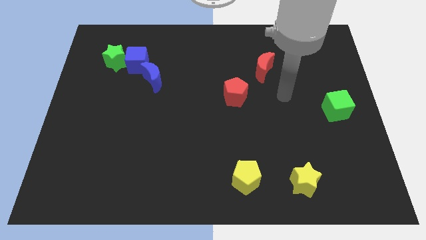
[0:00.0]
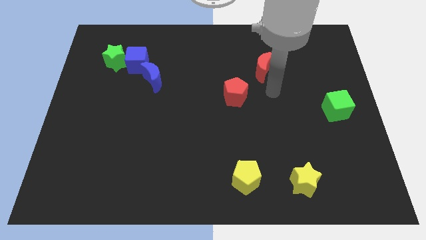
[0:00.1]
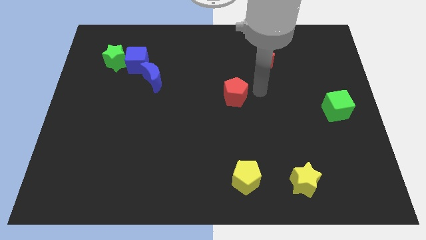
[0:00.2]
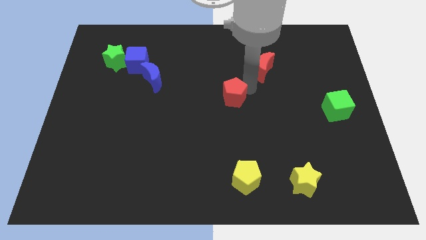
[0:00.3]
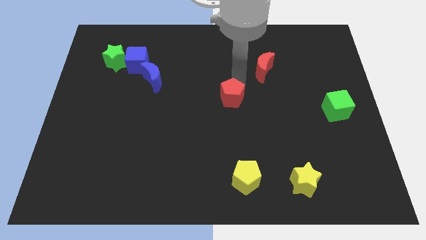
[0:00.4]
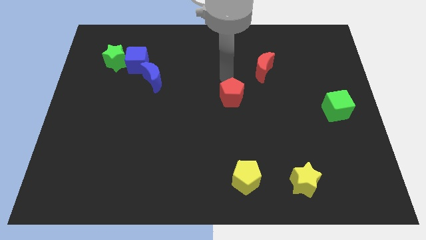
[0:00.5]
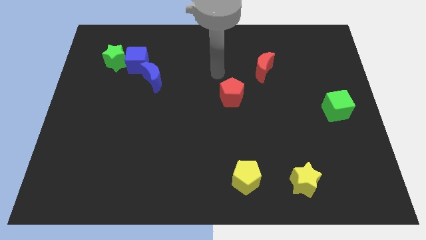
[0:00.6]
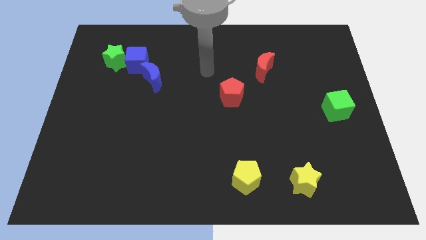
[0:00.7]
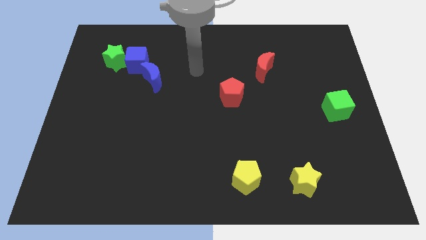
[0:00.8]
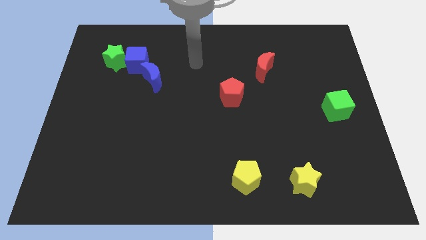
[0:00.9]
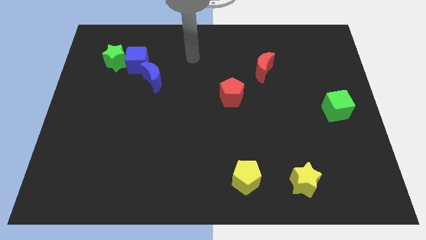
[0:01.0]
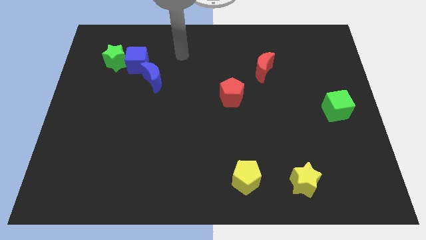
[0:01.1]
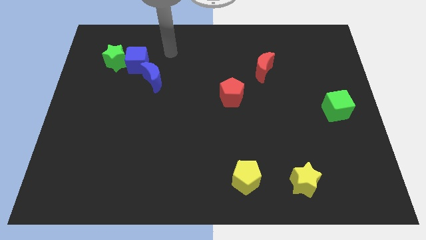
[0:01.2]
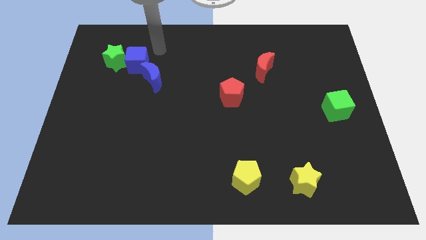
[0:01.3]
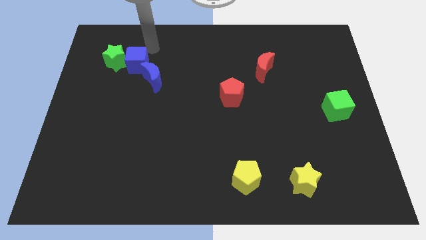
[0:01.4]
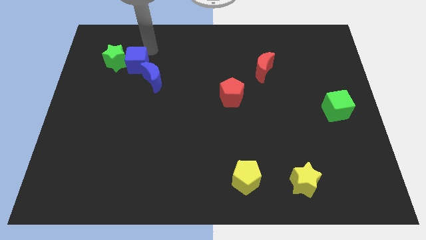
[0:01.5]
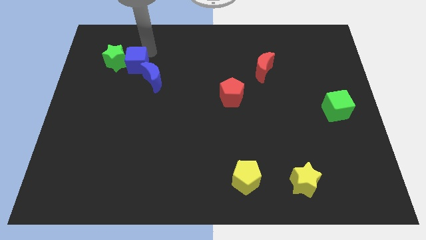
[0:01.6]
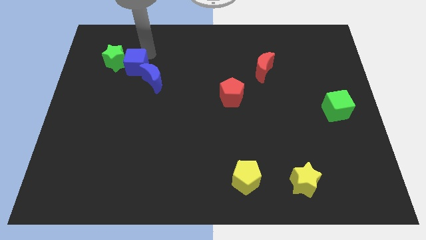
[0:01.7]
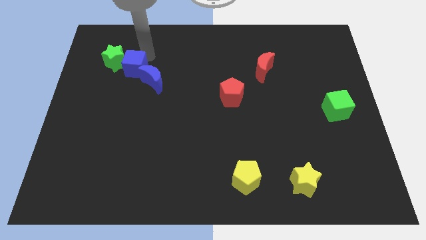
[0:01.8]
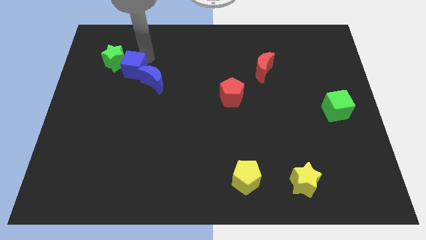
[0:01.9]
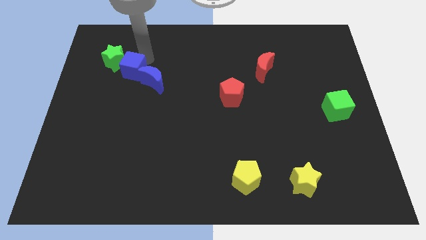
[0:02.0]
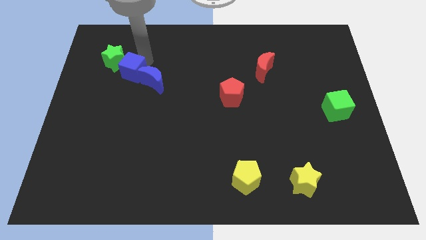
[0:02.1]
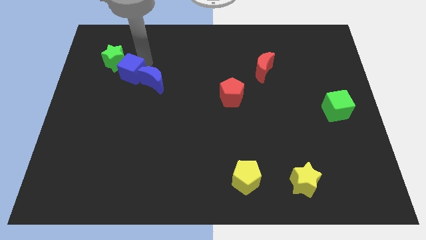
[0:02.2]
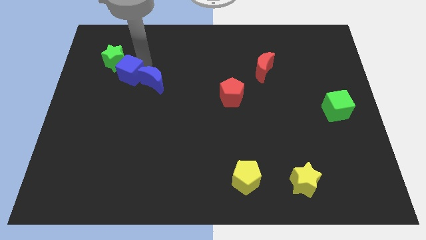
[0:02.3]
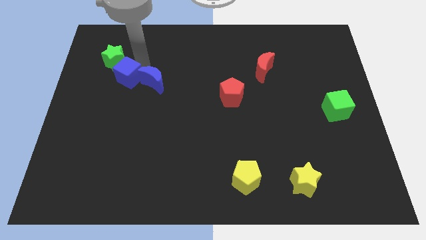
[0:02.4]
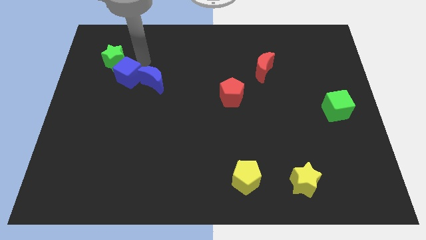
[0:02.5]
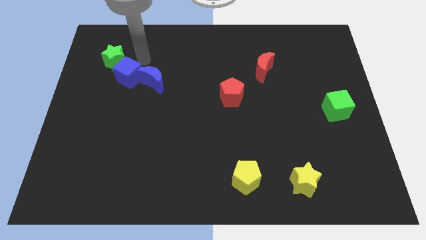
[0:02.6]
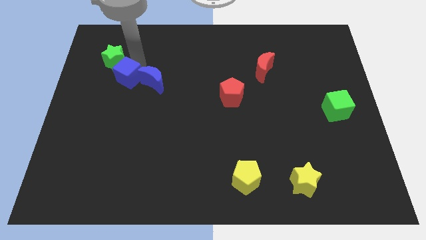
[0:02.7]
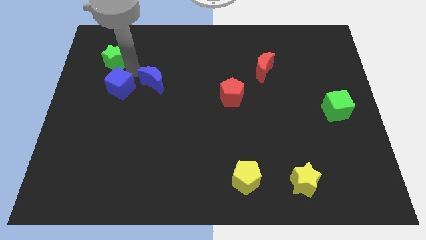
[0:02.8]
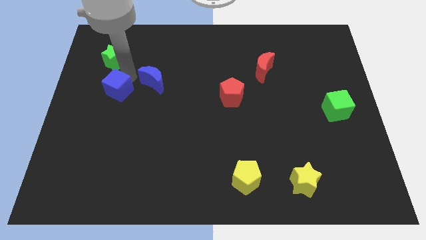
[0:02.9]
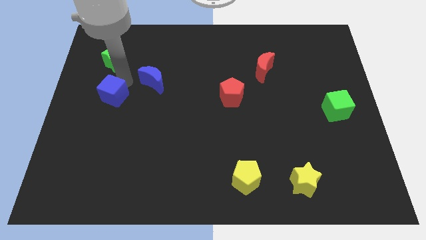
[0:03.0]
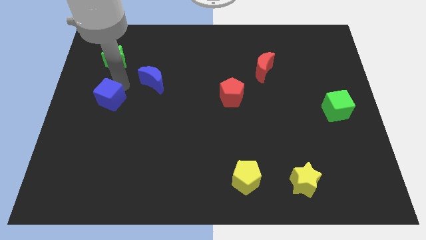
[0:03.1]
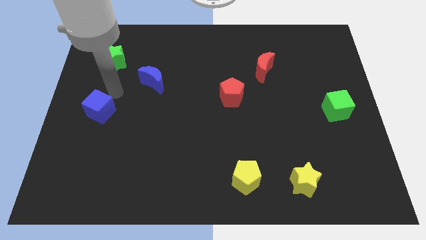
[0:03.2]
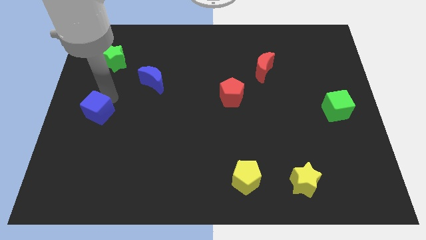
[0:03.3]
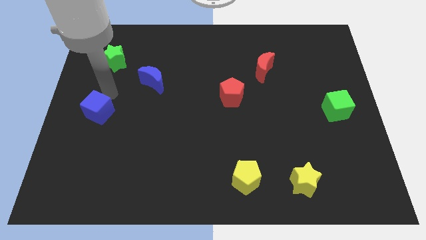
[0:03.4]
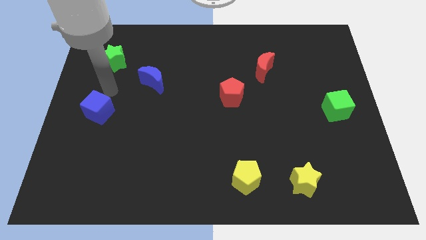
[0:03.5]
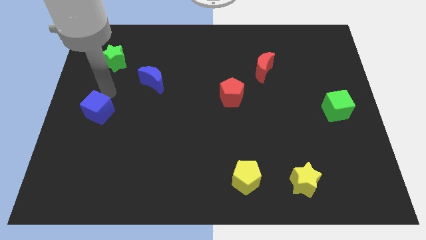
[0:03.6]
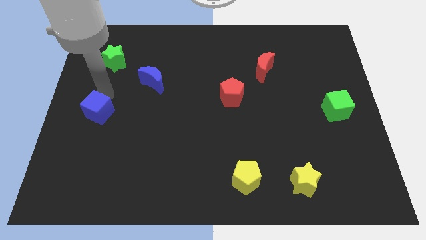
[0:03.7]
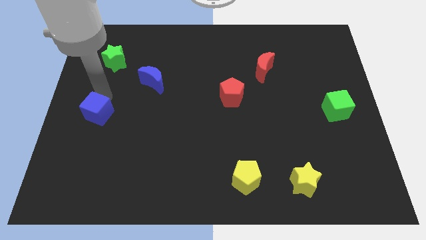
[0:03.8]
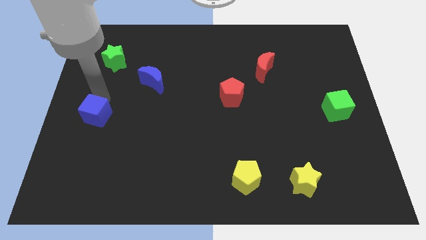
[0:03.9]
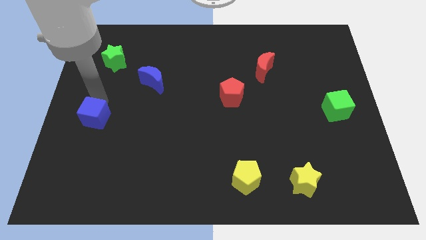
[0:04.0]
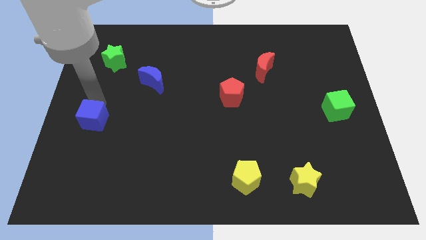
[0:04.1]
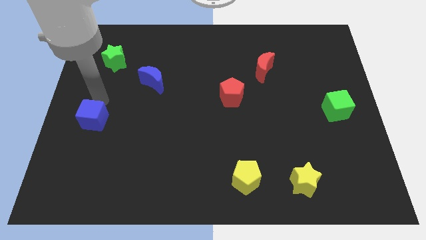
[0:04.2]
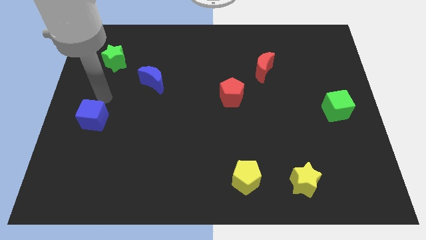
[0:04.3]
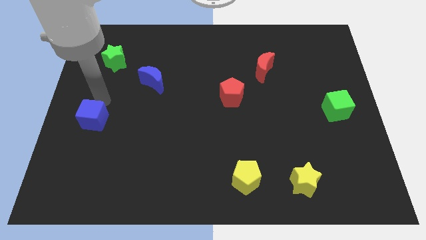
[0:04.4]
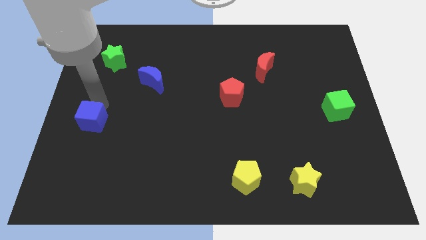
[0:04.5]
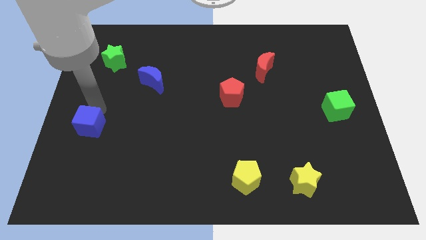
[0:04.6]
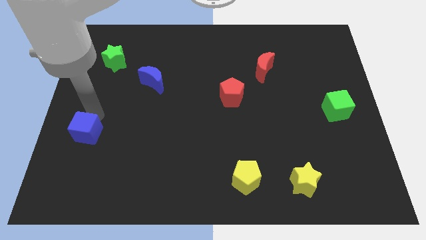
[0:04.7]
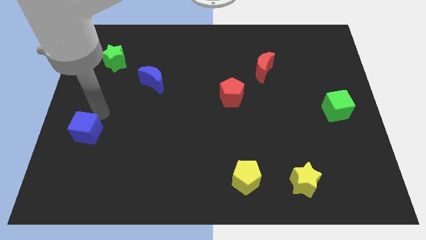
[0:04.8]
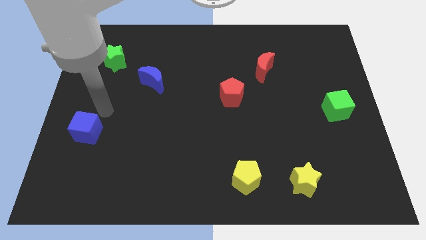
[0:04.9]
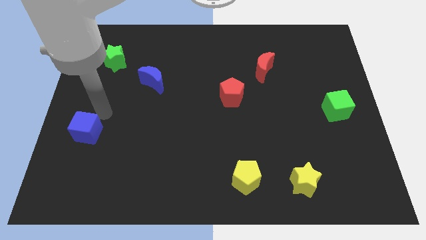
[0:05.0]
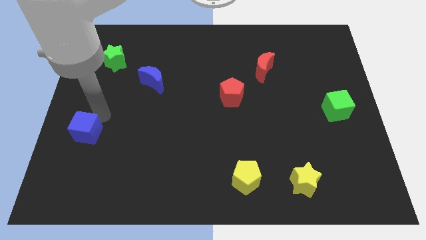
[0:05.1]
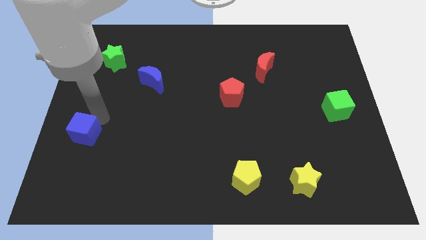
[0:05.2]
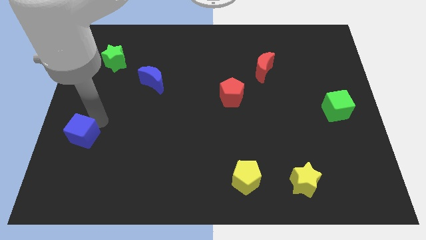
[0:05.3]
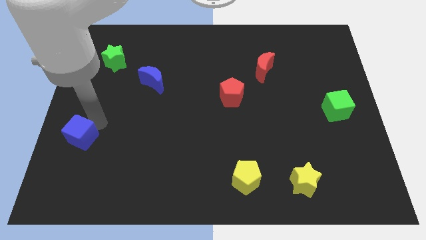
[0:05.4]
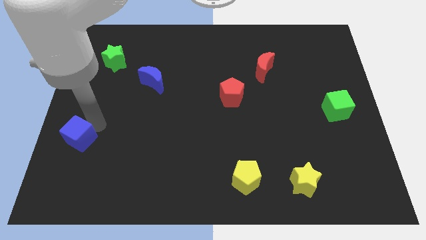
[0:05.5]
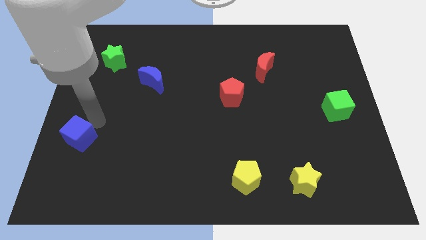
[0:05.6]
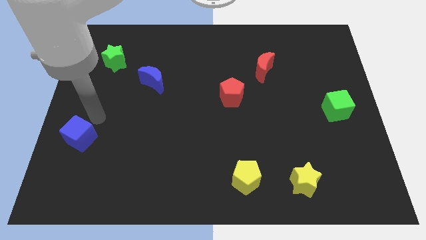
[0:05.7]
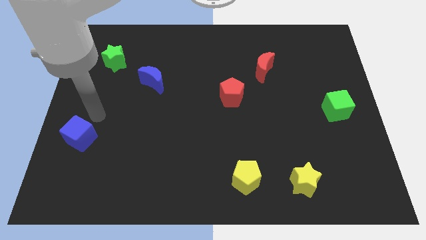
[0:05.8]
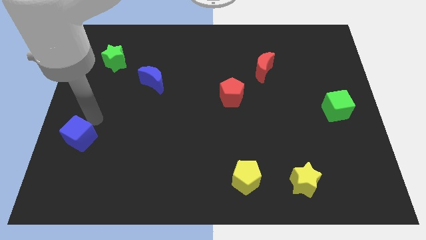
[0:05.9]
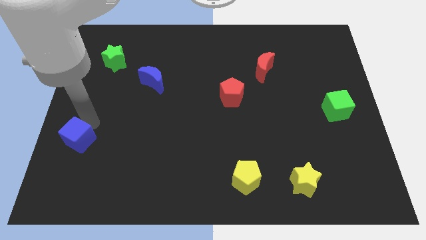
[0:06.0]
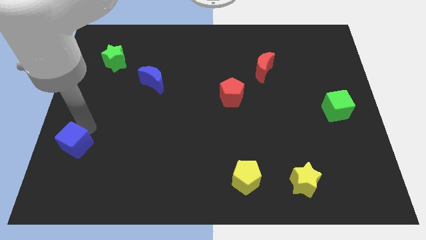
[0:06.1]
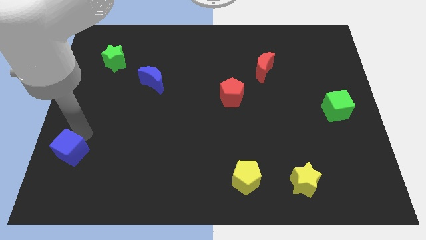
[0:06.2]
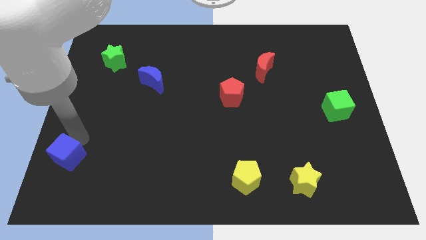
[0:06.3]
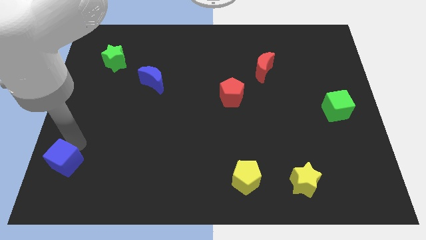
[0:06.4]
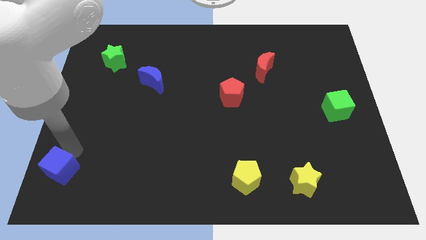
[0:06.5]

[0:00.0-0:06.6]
slide the blue cube to the bottom left of the board

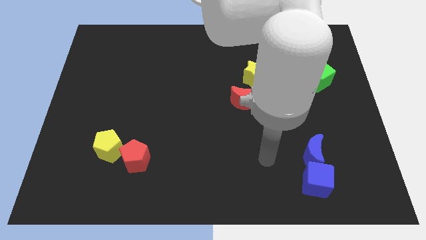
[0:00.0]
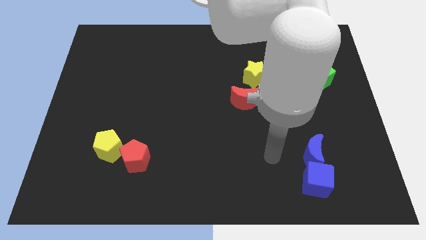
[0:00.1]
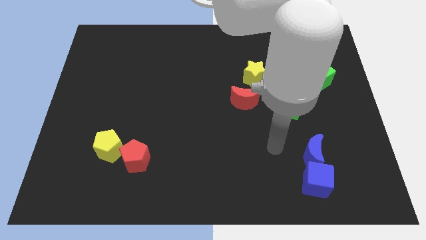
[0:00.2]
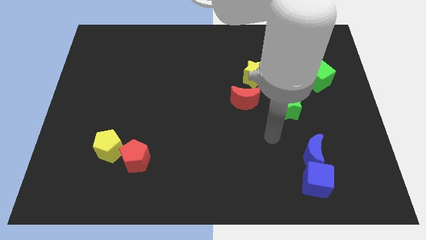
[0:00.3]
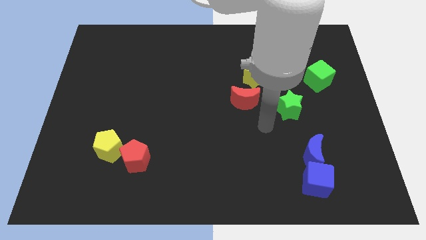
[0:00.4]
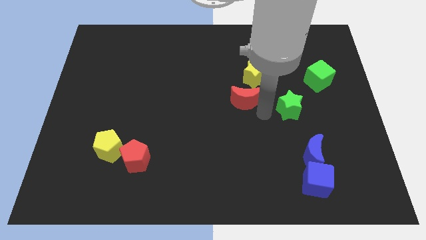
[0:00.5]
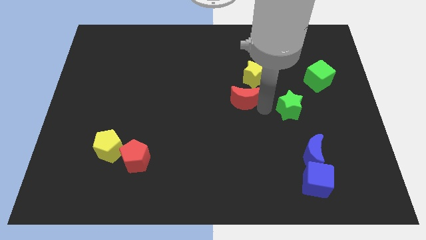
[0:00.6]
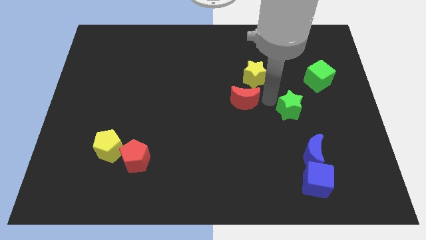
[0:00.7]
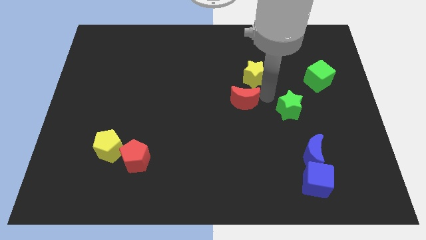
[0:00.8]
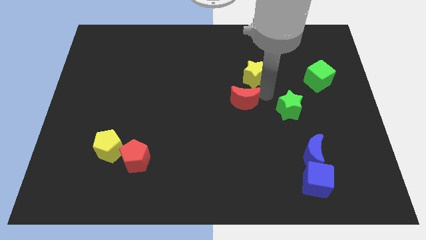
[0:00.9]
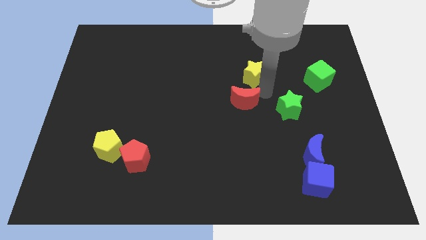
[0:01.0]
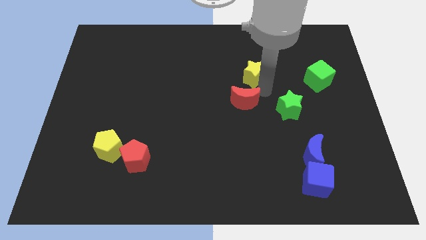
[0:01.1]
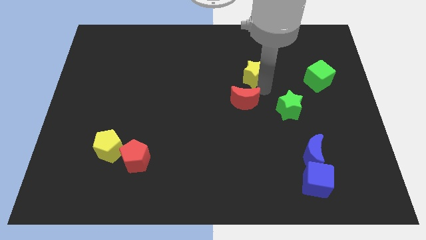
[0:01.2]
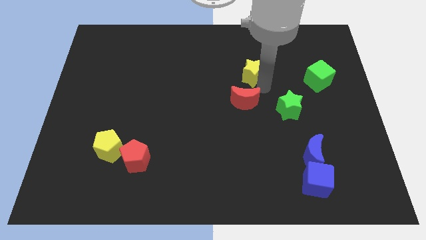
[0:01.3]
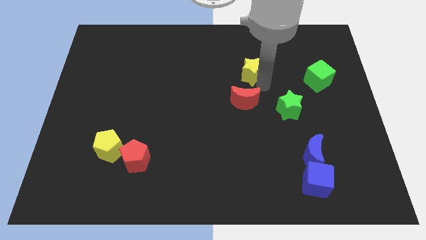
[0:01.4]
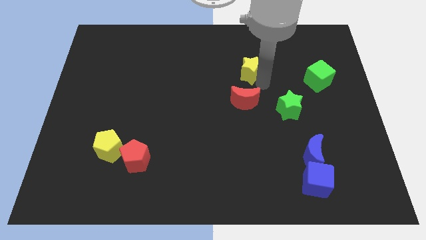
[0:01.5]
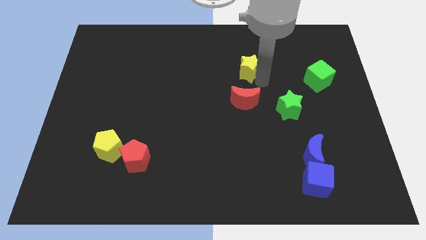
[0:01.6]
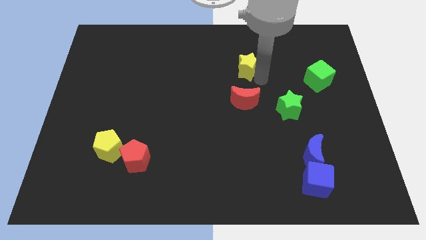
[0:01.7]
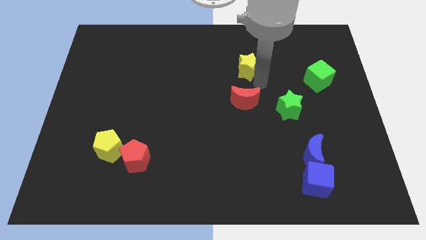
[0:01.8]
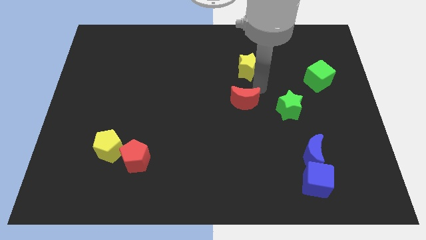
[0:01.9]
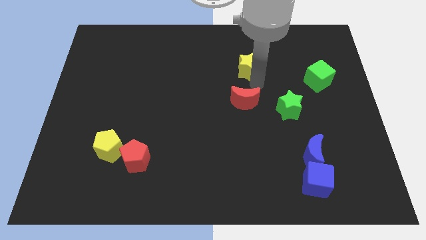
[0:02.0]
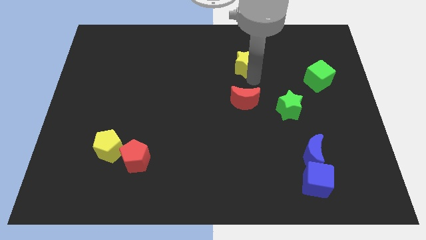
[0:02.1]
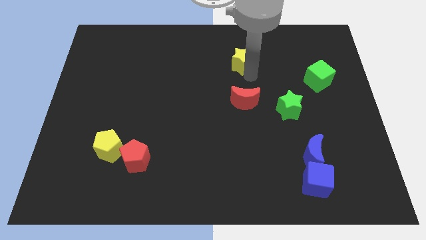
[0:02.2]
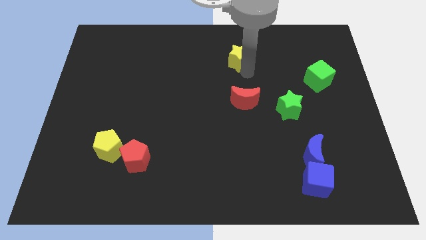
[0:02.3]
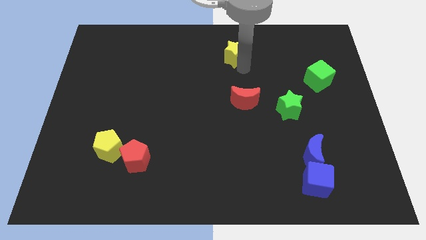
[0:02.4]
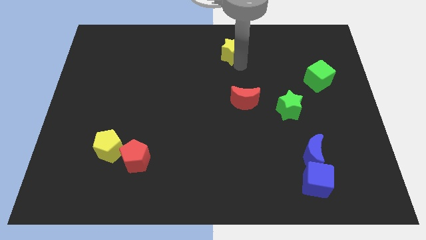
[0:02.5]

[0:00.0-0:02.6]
slide the yellow star to the top side
